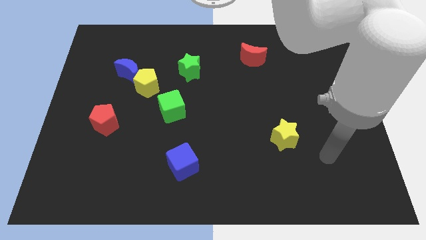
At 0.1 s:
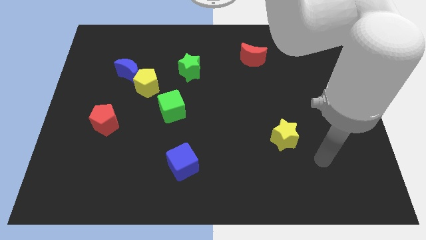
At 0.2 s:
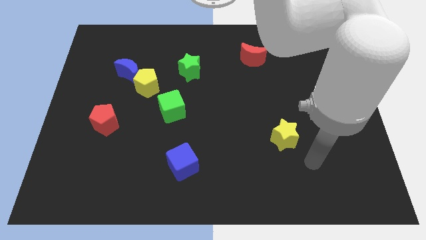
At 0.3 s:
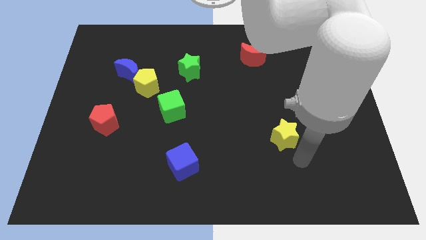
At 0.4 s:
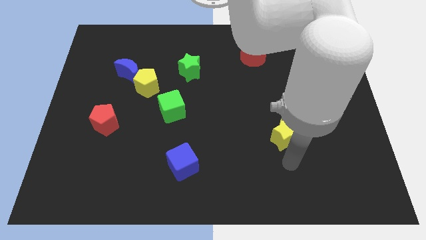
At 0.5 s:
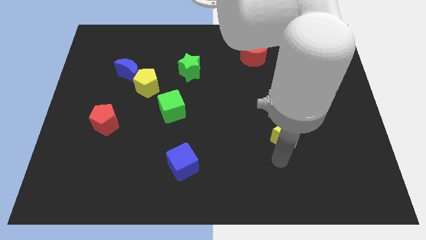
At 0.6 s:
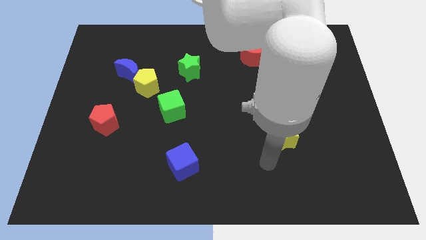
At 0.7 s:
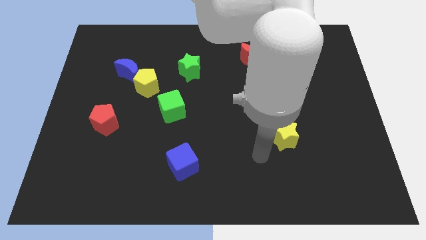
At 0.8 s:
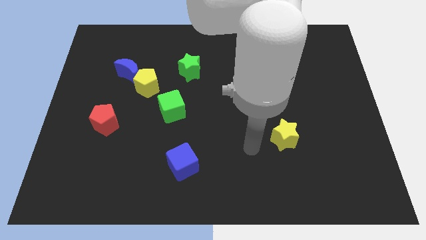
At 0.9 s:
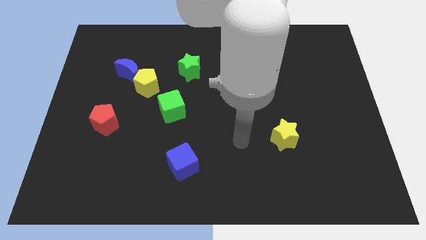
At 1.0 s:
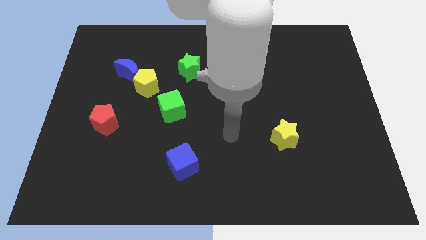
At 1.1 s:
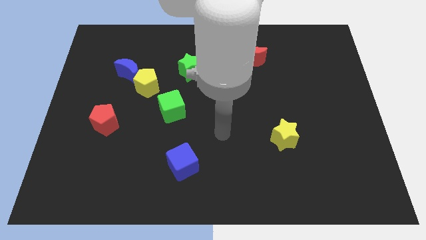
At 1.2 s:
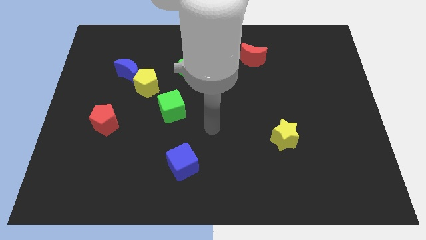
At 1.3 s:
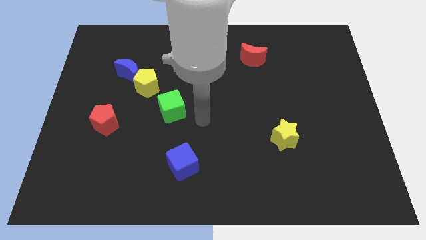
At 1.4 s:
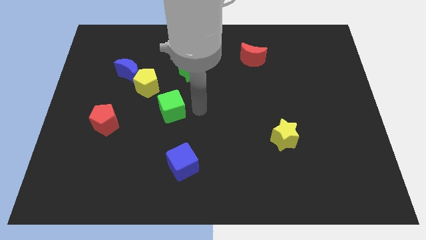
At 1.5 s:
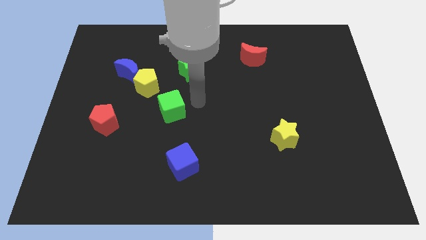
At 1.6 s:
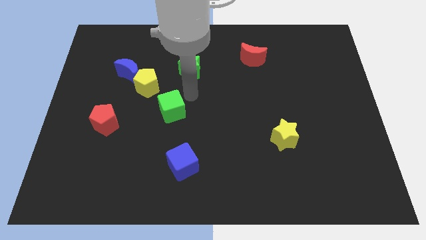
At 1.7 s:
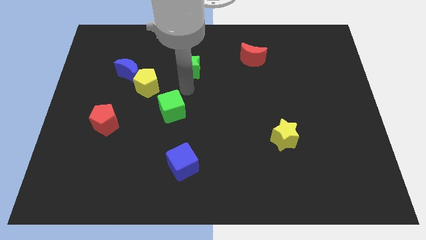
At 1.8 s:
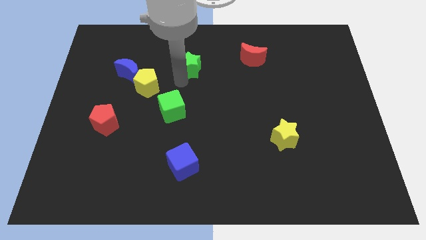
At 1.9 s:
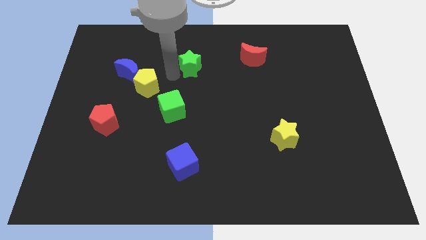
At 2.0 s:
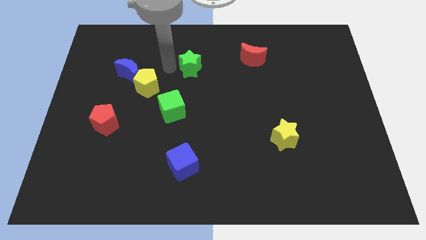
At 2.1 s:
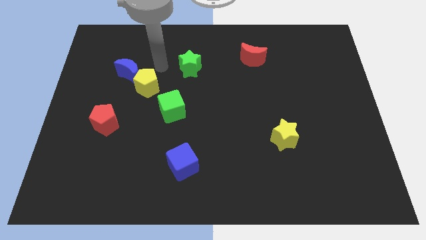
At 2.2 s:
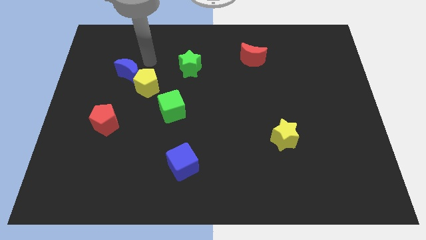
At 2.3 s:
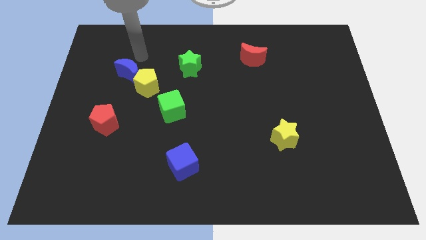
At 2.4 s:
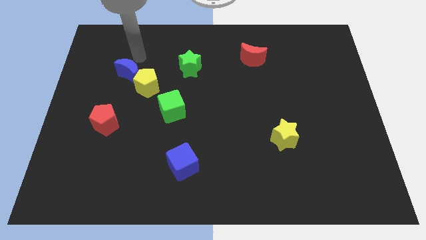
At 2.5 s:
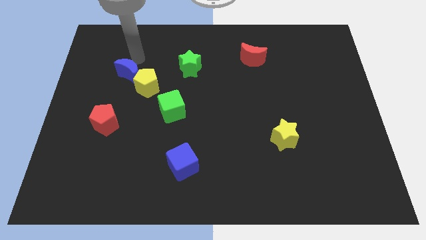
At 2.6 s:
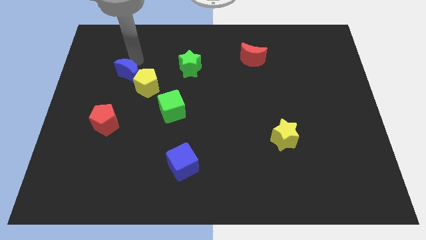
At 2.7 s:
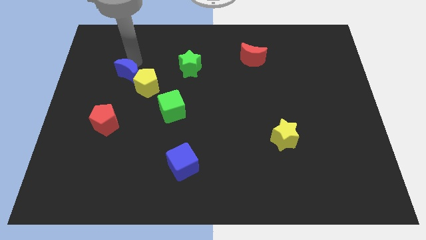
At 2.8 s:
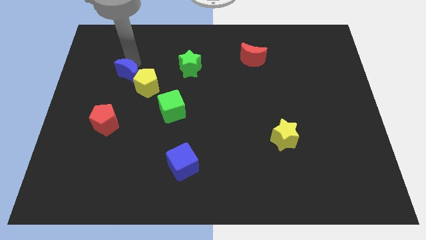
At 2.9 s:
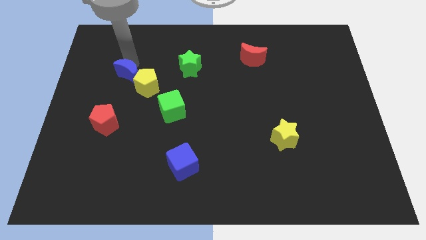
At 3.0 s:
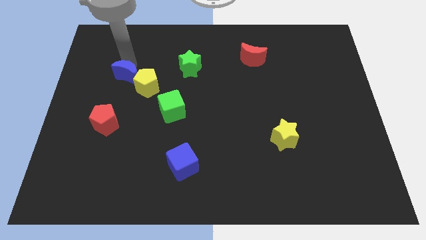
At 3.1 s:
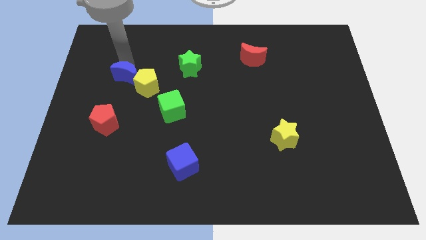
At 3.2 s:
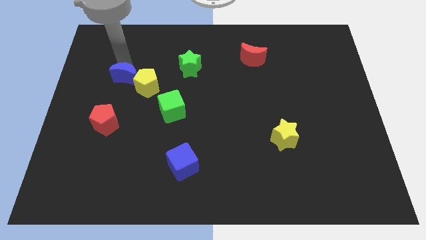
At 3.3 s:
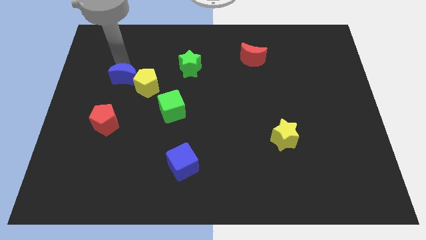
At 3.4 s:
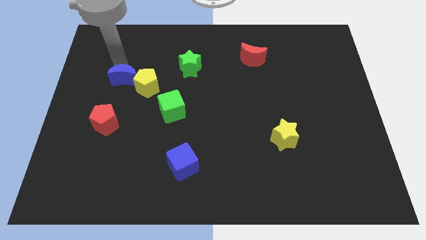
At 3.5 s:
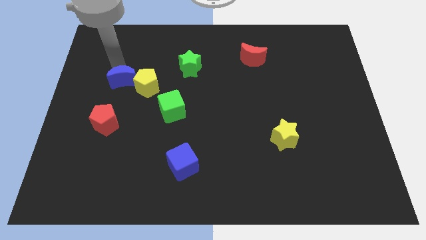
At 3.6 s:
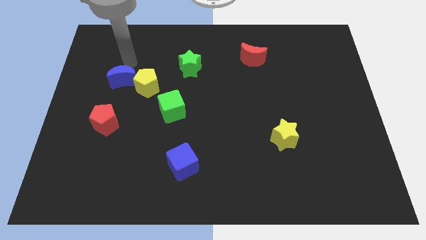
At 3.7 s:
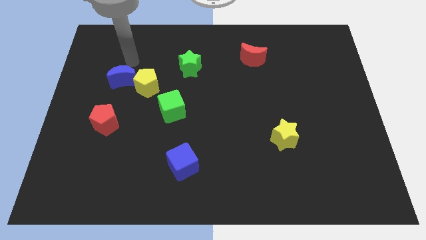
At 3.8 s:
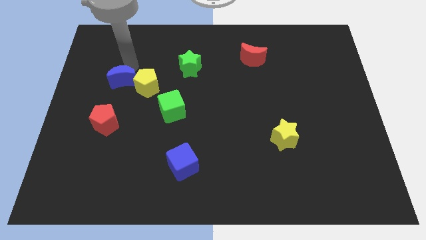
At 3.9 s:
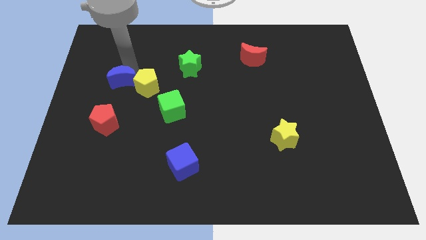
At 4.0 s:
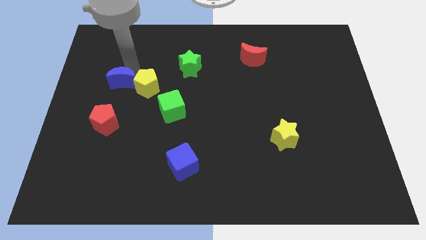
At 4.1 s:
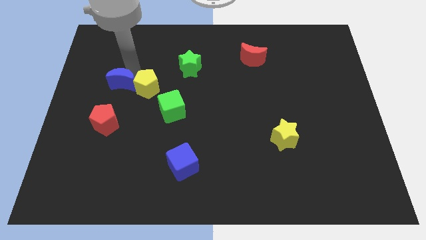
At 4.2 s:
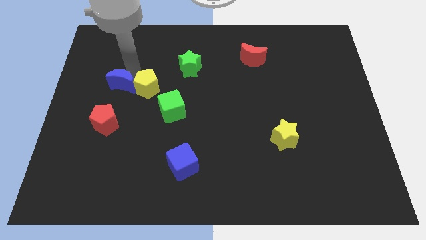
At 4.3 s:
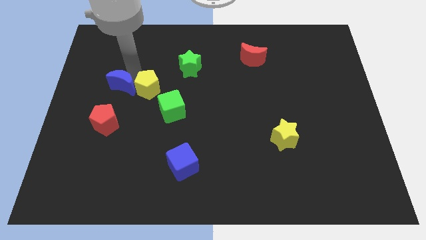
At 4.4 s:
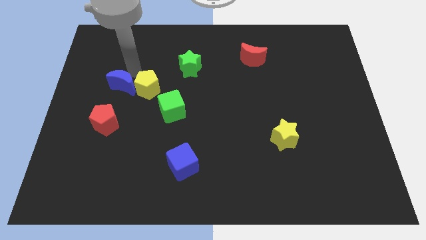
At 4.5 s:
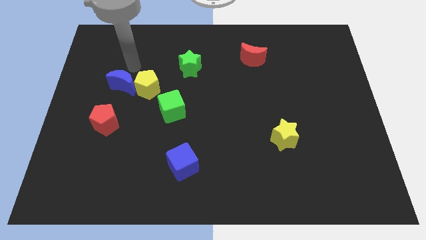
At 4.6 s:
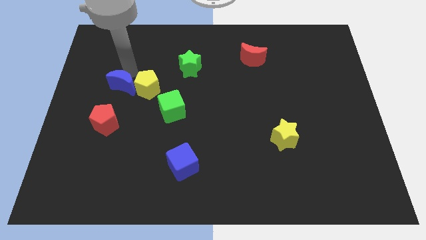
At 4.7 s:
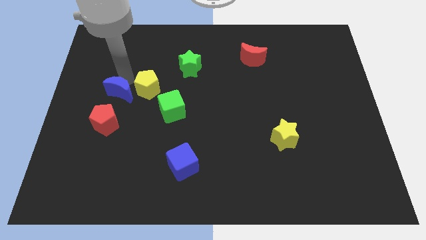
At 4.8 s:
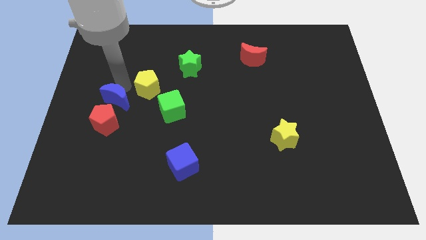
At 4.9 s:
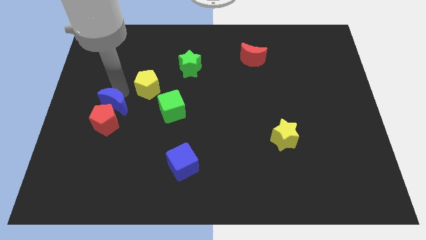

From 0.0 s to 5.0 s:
move the blue moon to the red pentagon

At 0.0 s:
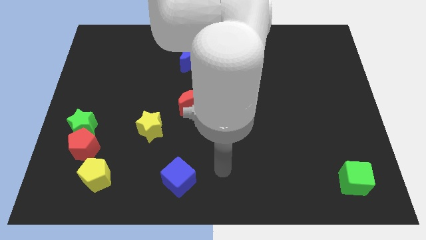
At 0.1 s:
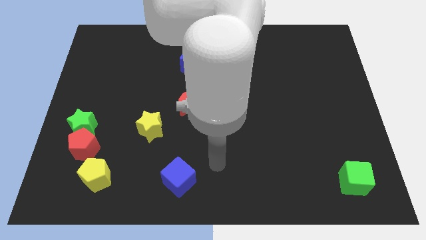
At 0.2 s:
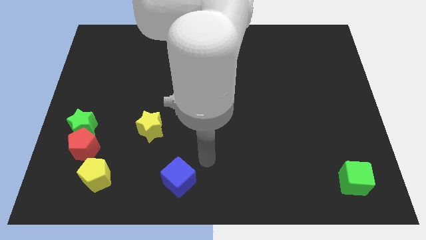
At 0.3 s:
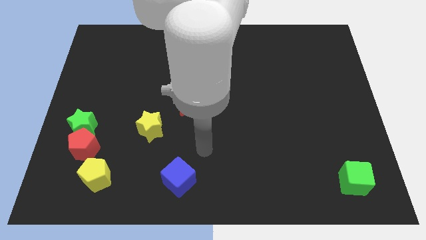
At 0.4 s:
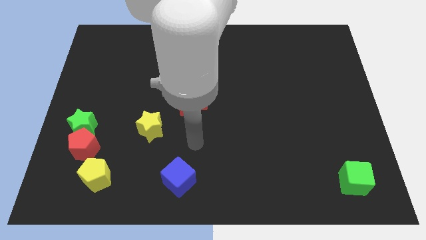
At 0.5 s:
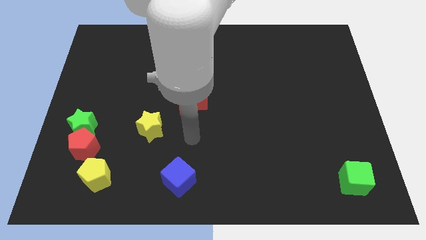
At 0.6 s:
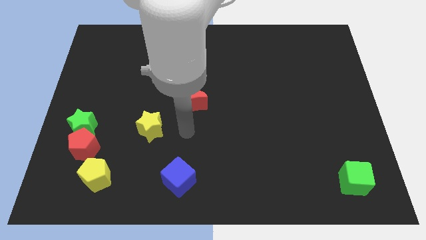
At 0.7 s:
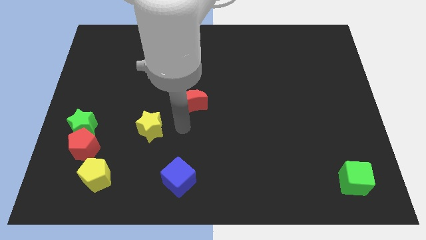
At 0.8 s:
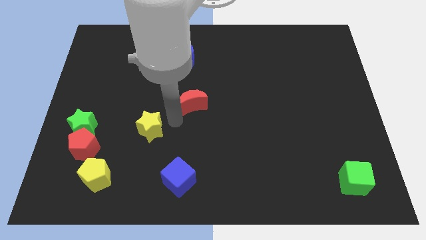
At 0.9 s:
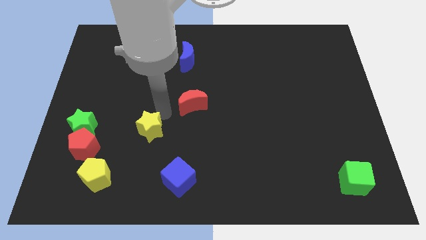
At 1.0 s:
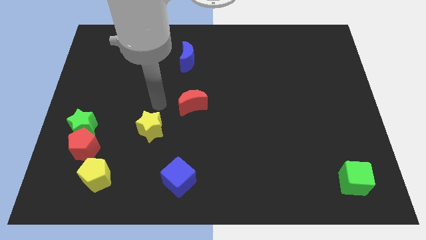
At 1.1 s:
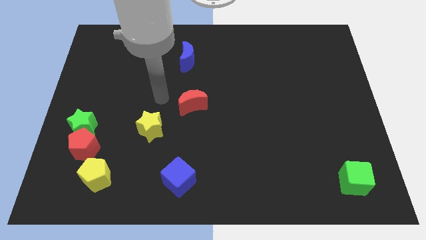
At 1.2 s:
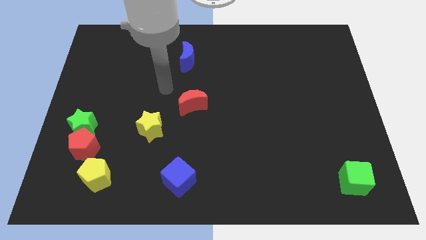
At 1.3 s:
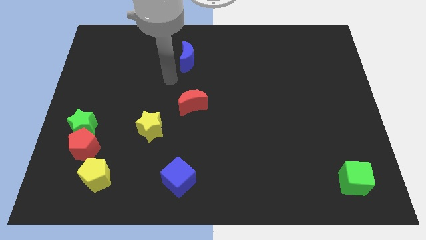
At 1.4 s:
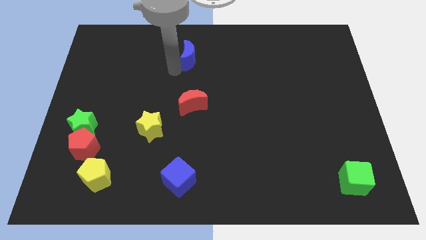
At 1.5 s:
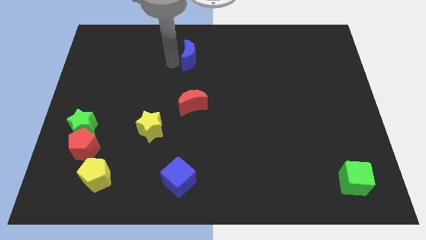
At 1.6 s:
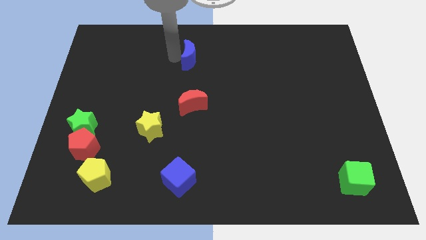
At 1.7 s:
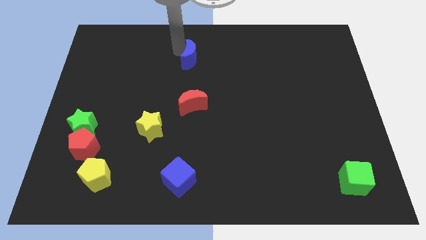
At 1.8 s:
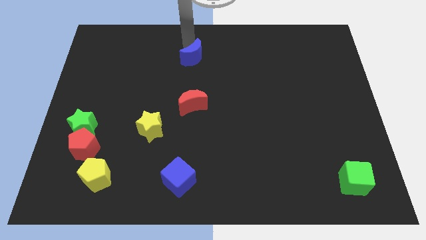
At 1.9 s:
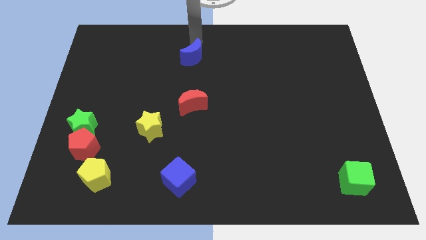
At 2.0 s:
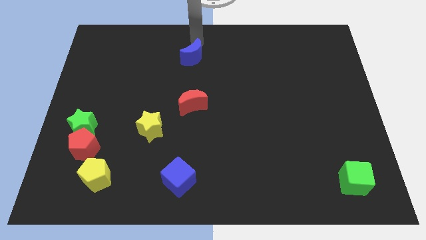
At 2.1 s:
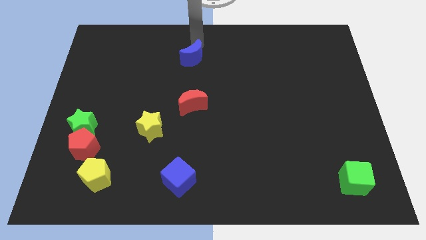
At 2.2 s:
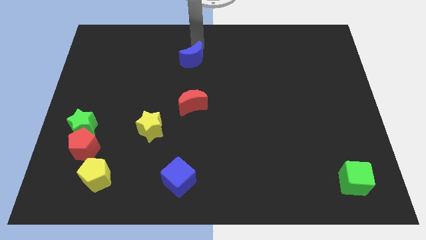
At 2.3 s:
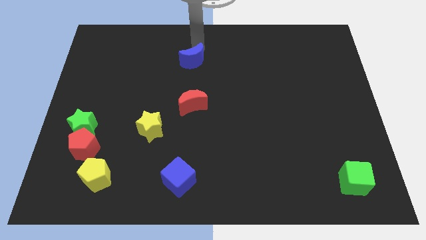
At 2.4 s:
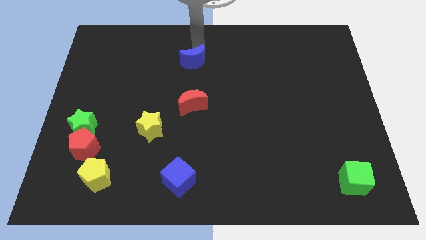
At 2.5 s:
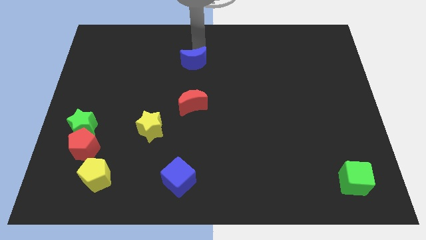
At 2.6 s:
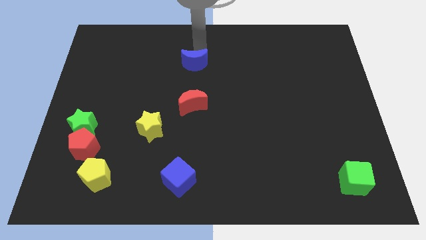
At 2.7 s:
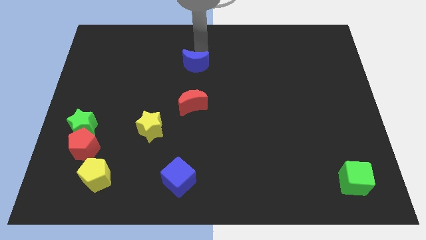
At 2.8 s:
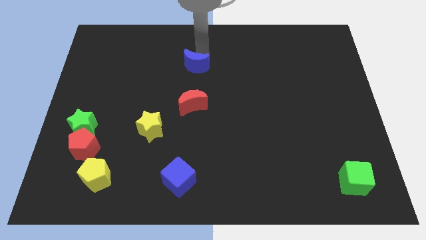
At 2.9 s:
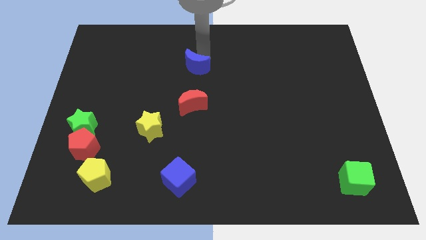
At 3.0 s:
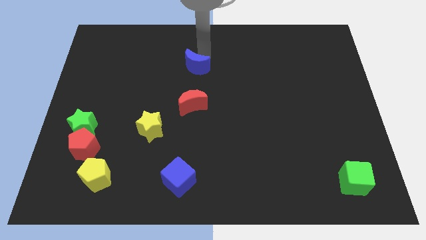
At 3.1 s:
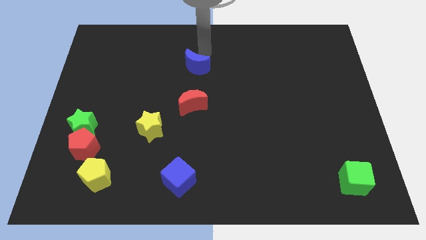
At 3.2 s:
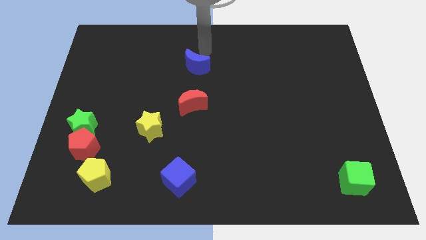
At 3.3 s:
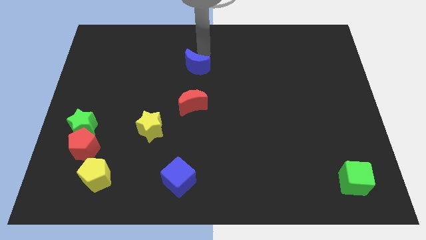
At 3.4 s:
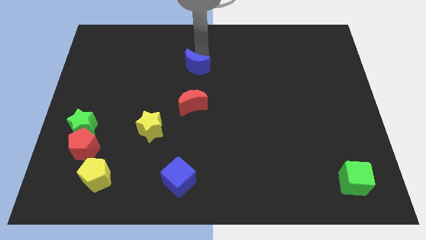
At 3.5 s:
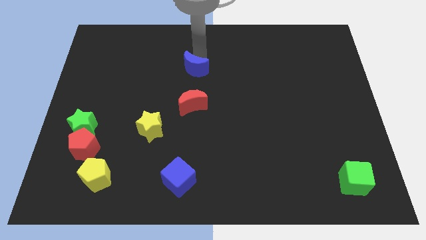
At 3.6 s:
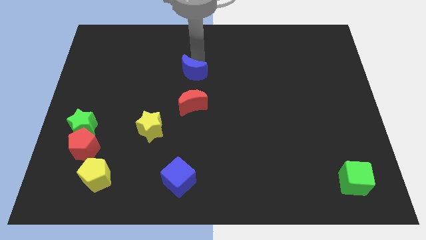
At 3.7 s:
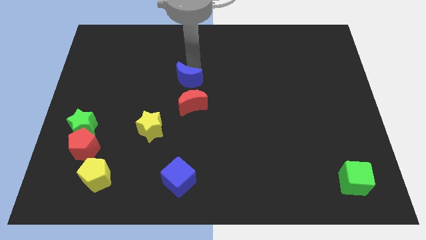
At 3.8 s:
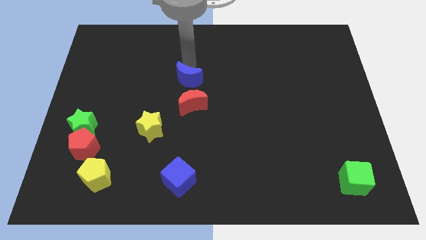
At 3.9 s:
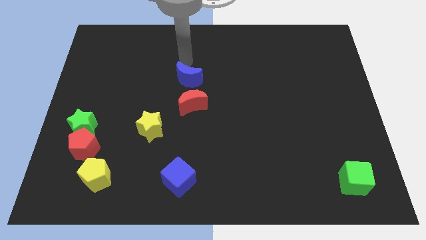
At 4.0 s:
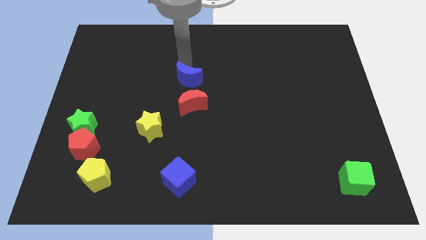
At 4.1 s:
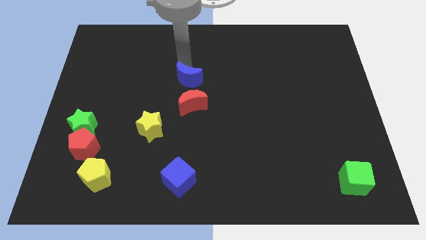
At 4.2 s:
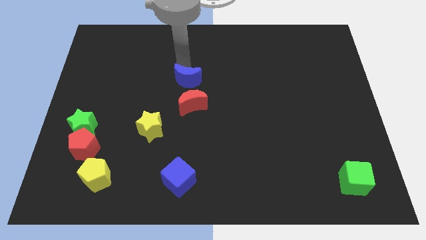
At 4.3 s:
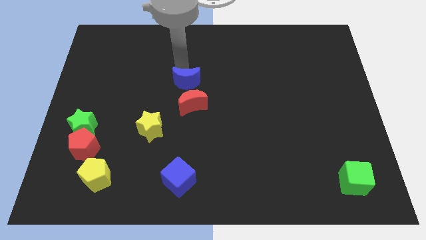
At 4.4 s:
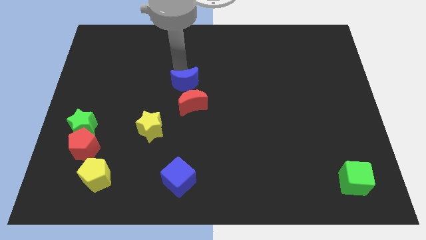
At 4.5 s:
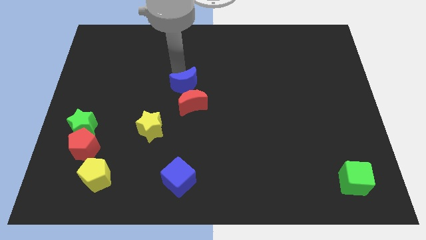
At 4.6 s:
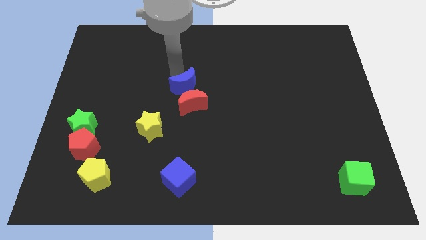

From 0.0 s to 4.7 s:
put the blue moon close to the red moon
